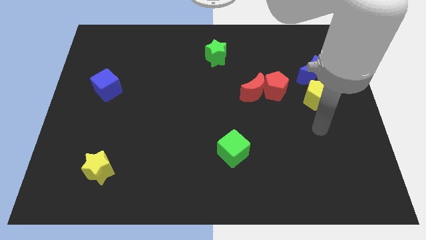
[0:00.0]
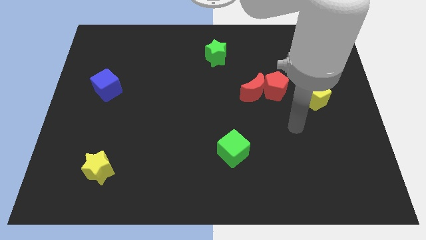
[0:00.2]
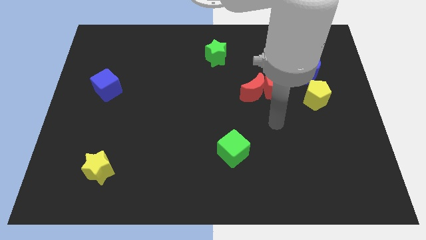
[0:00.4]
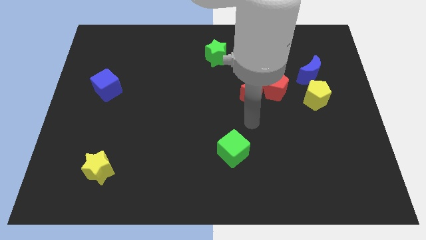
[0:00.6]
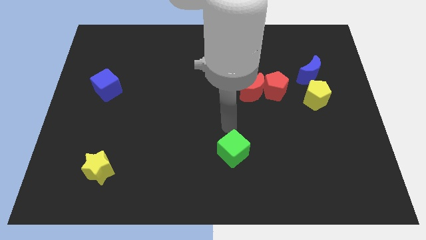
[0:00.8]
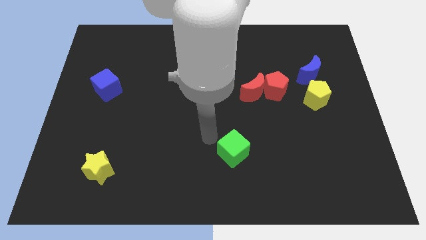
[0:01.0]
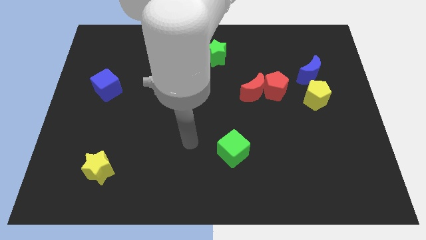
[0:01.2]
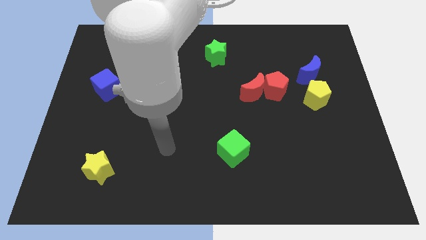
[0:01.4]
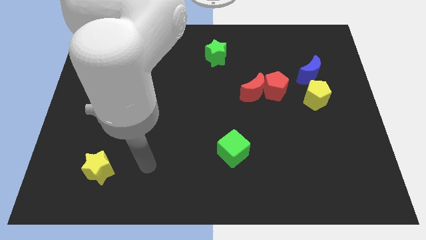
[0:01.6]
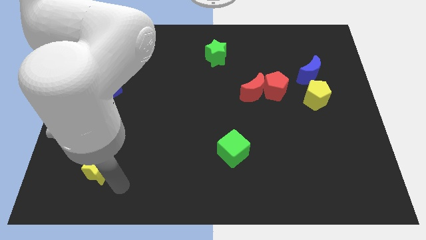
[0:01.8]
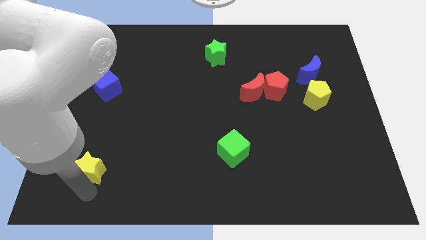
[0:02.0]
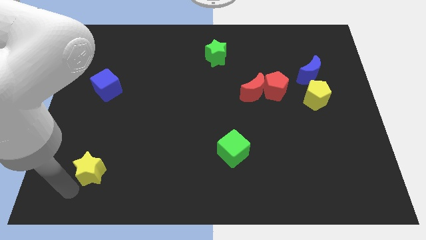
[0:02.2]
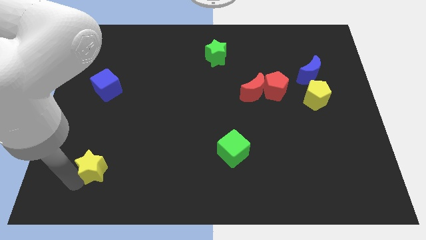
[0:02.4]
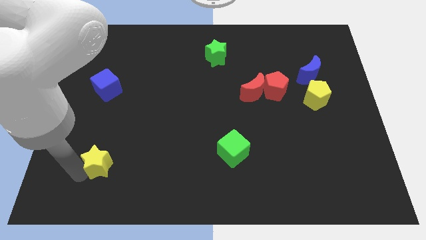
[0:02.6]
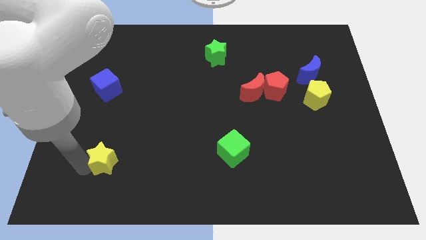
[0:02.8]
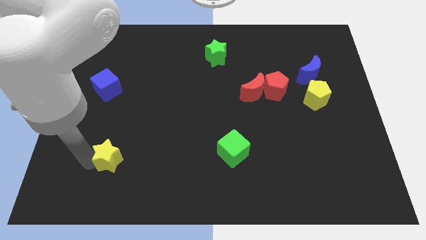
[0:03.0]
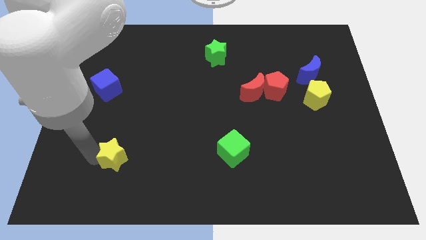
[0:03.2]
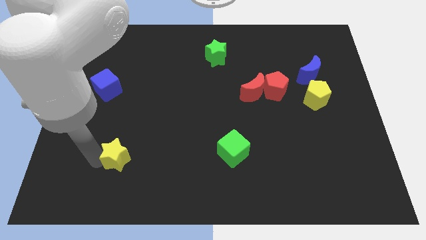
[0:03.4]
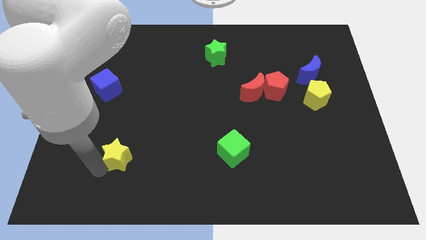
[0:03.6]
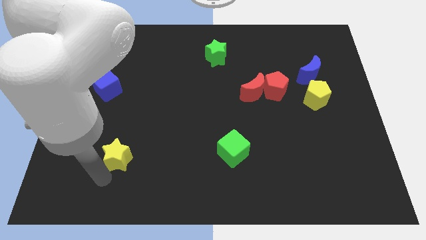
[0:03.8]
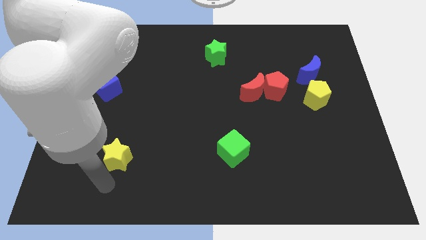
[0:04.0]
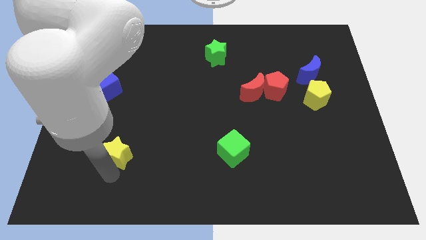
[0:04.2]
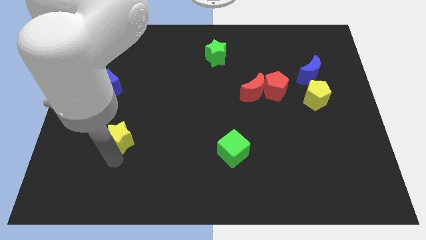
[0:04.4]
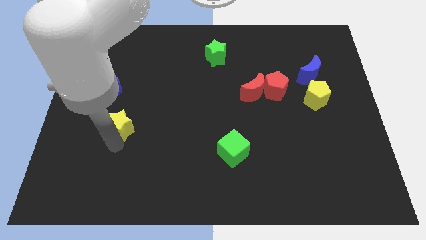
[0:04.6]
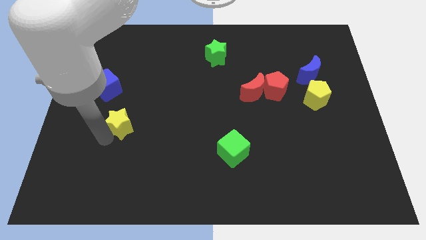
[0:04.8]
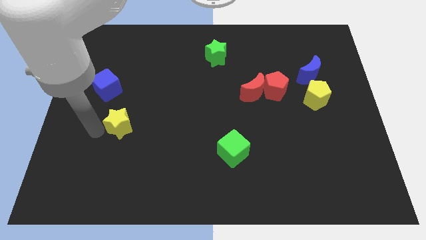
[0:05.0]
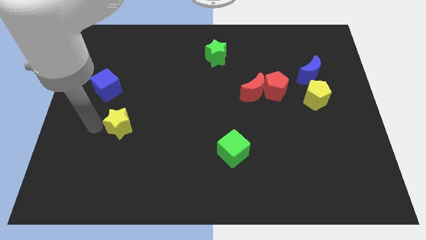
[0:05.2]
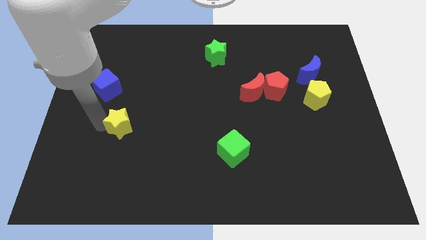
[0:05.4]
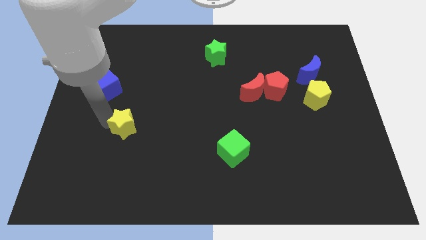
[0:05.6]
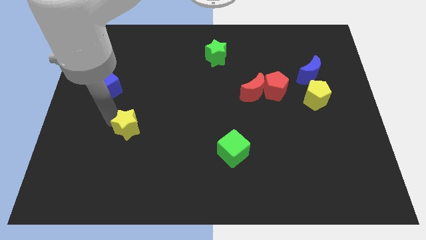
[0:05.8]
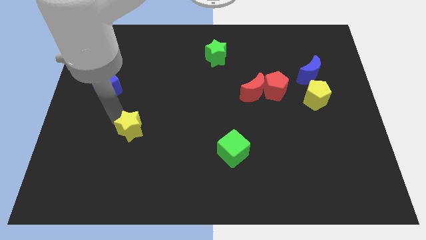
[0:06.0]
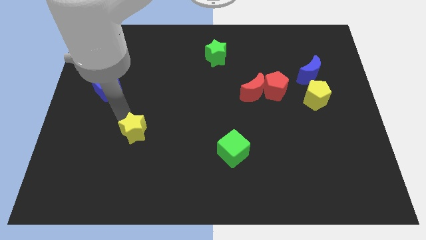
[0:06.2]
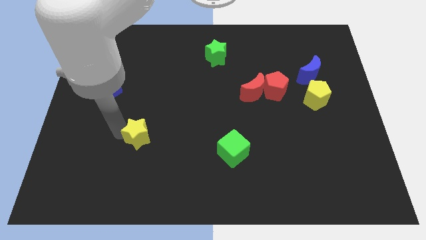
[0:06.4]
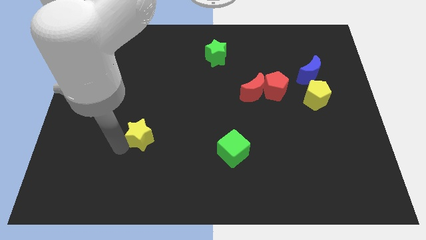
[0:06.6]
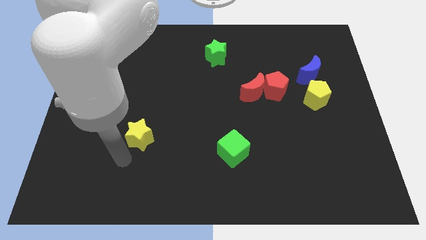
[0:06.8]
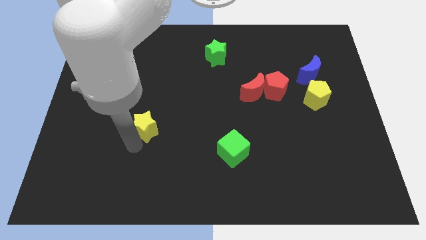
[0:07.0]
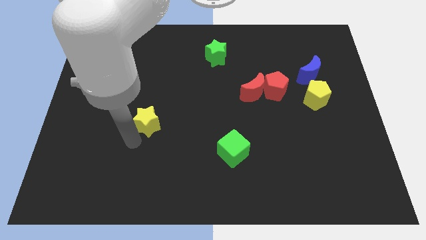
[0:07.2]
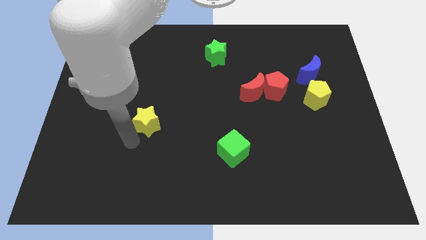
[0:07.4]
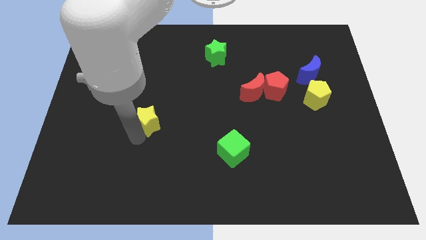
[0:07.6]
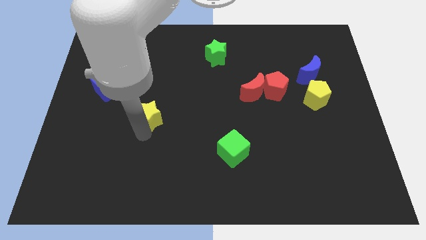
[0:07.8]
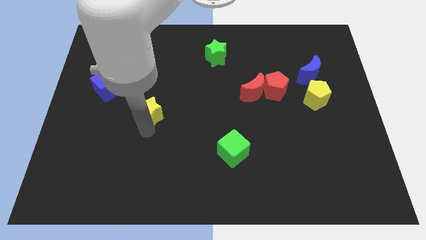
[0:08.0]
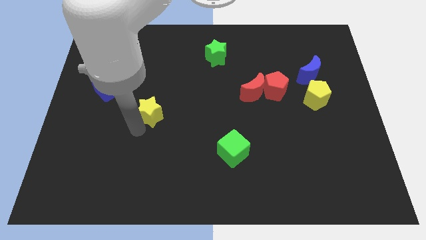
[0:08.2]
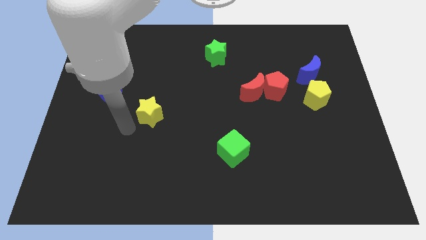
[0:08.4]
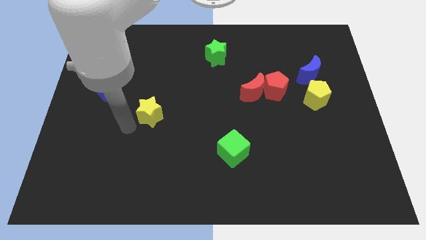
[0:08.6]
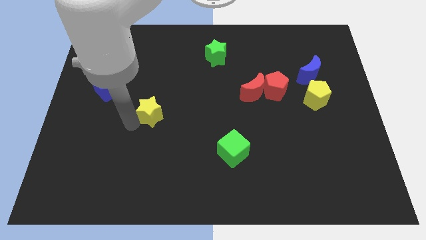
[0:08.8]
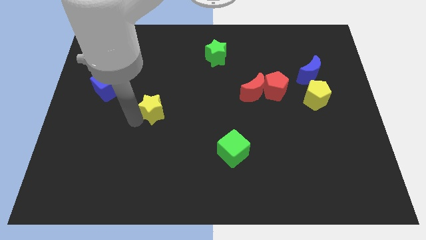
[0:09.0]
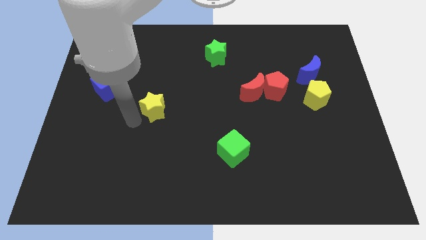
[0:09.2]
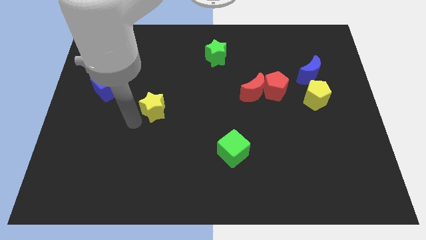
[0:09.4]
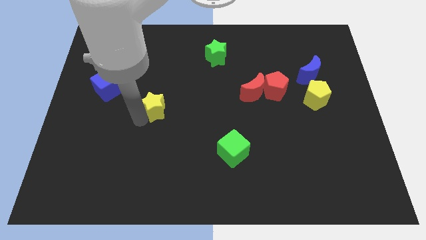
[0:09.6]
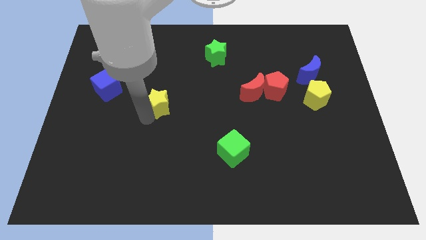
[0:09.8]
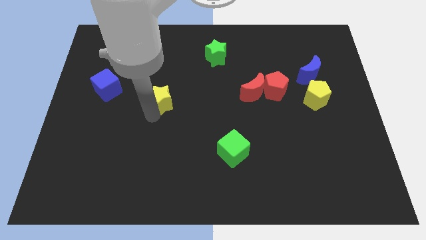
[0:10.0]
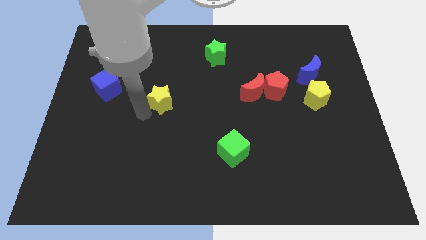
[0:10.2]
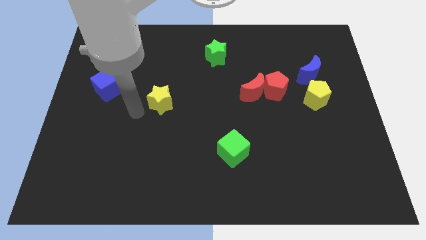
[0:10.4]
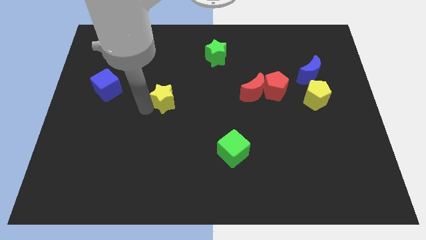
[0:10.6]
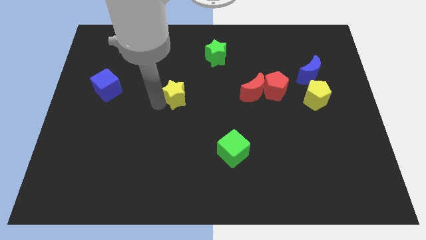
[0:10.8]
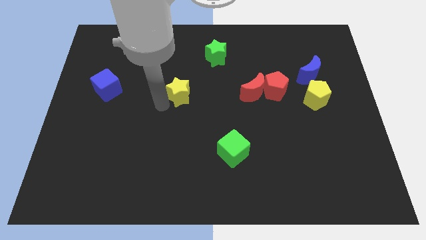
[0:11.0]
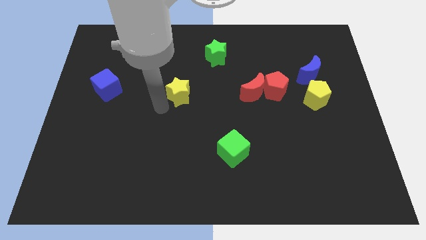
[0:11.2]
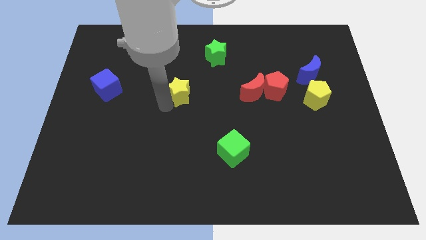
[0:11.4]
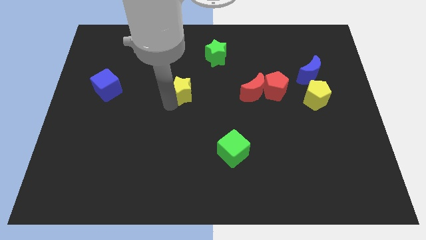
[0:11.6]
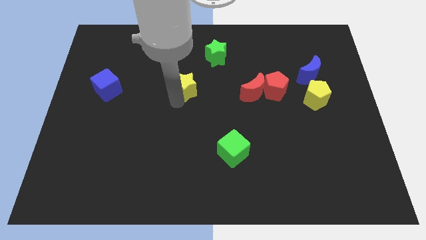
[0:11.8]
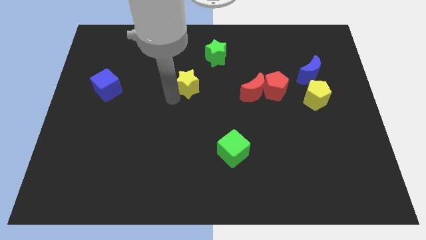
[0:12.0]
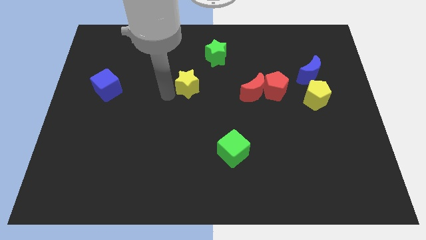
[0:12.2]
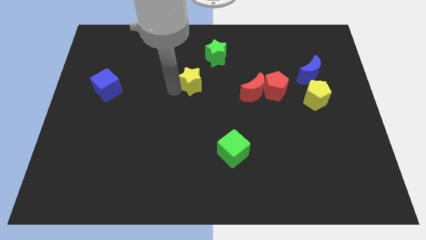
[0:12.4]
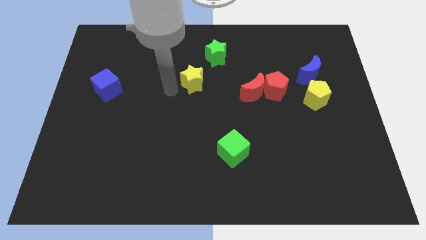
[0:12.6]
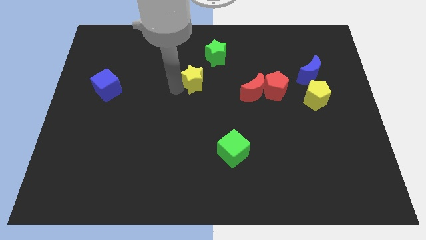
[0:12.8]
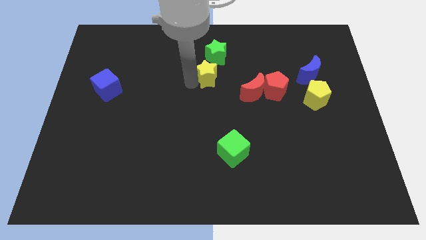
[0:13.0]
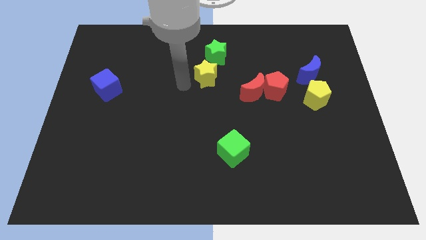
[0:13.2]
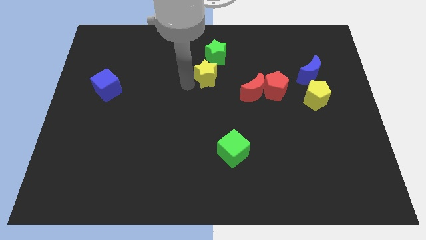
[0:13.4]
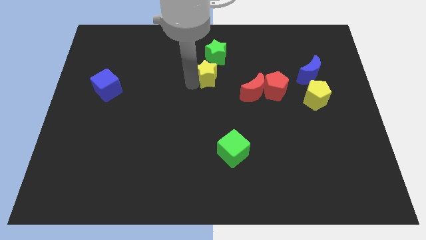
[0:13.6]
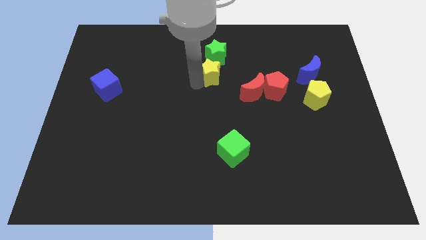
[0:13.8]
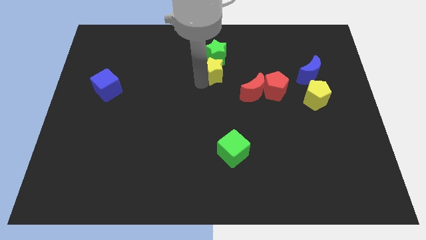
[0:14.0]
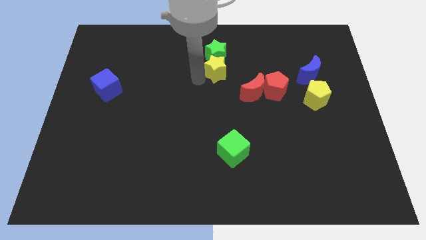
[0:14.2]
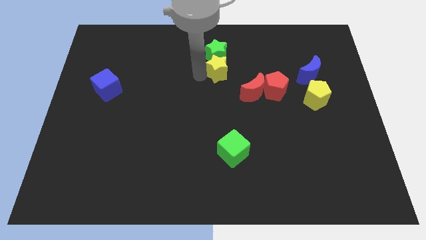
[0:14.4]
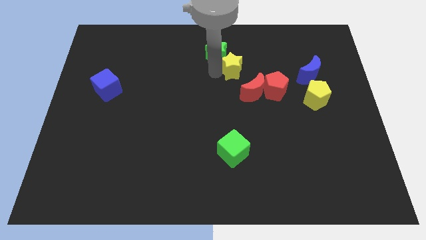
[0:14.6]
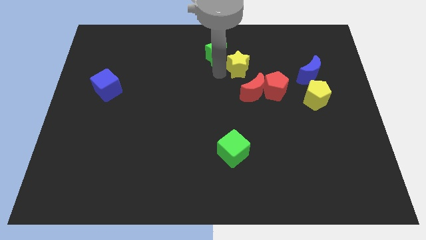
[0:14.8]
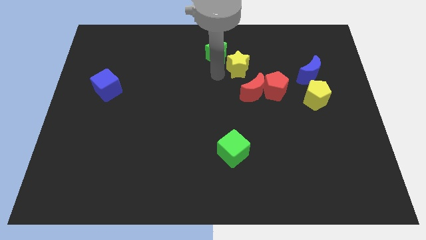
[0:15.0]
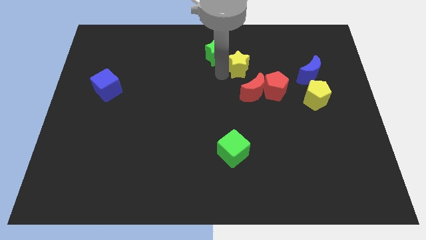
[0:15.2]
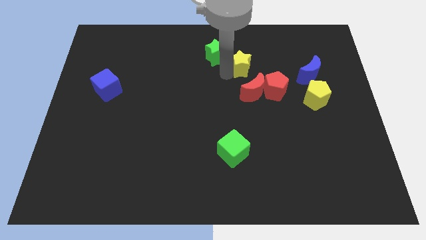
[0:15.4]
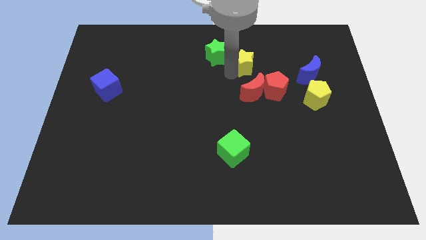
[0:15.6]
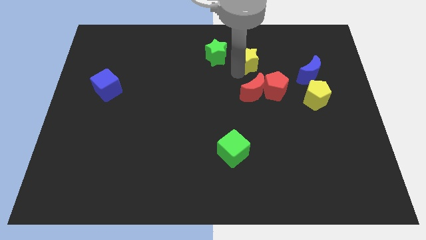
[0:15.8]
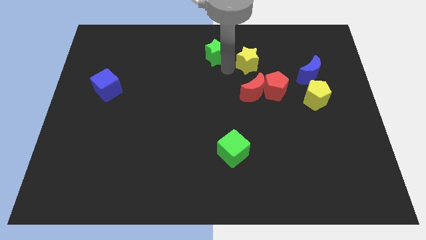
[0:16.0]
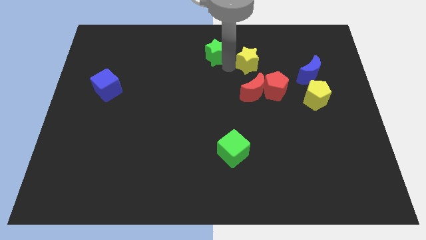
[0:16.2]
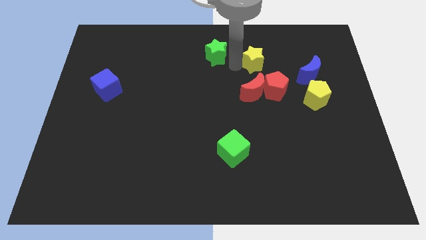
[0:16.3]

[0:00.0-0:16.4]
move the yellow star to the top of the red pentagon
